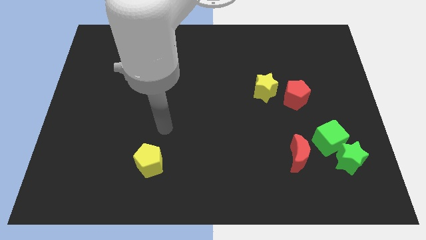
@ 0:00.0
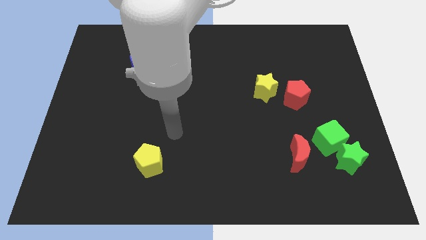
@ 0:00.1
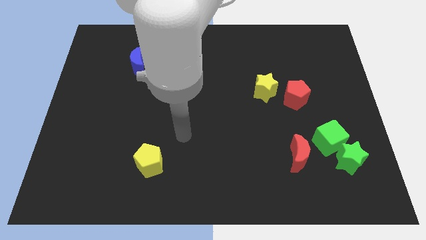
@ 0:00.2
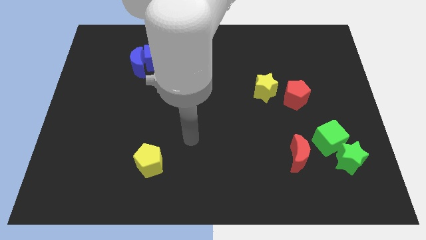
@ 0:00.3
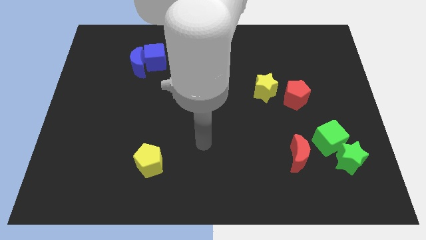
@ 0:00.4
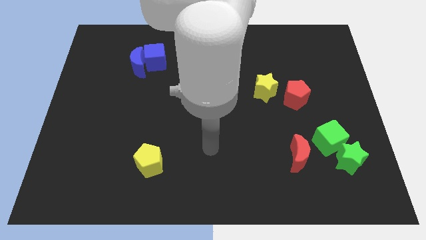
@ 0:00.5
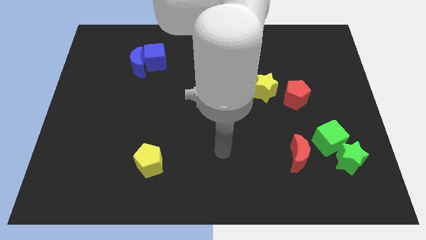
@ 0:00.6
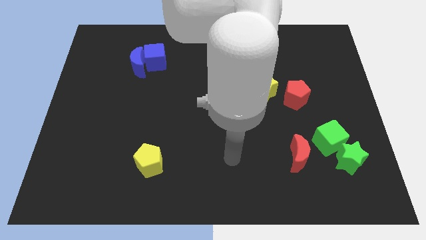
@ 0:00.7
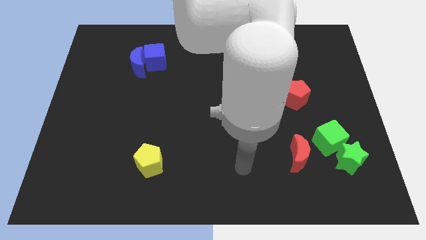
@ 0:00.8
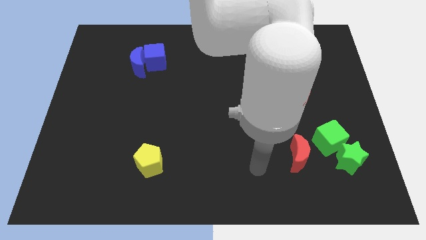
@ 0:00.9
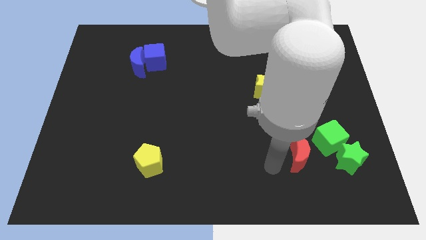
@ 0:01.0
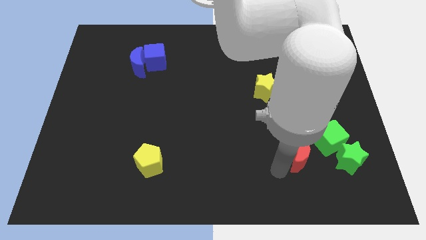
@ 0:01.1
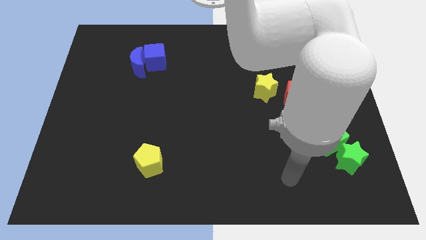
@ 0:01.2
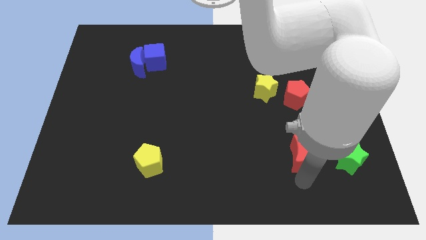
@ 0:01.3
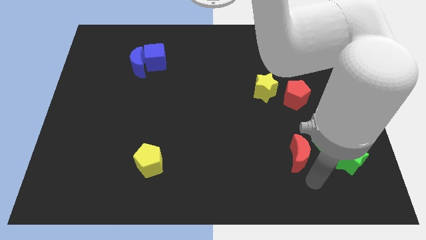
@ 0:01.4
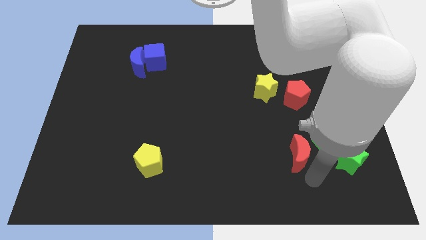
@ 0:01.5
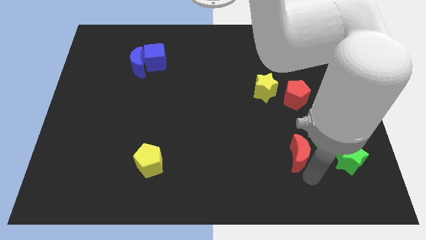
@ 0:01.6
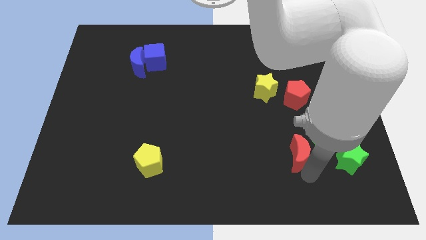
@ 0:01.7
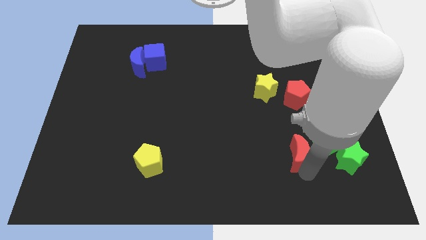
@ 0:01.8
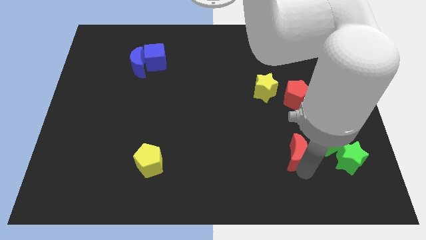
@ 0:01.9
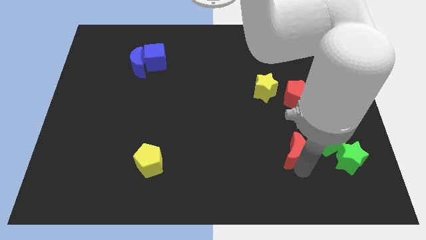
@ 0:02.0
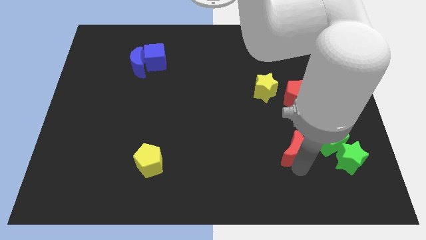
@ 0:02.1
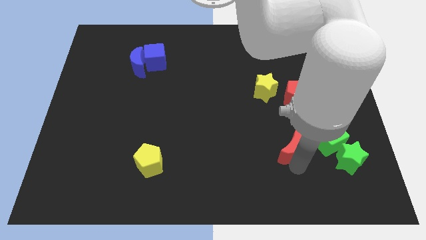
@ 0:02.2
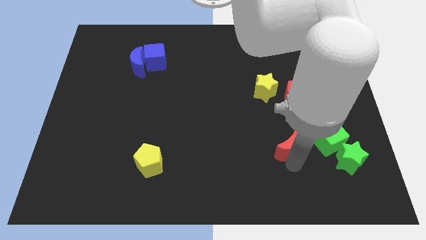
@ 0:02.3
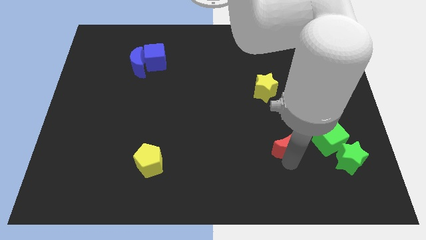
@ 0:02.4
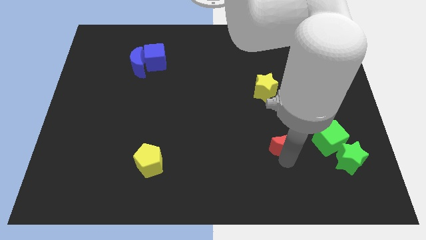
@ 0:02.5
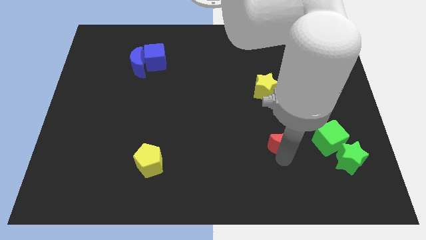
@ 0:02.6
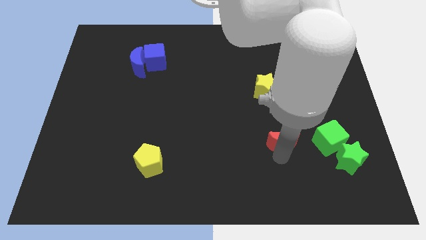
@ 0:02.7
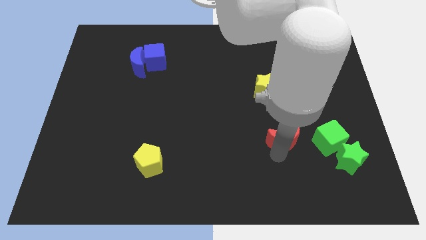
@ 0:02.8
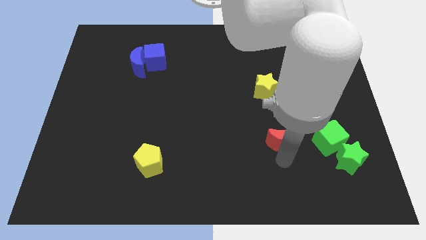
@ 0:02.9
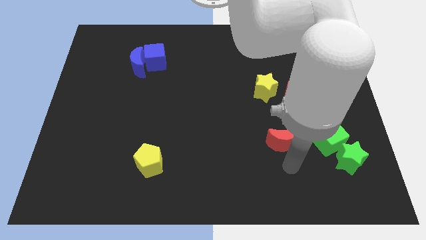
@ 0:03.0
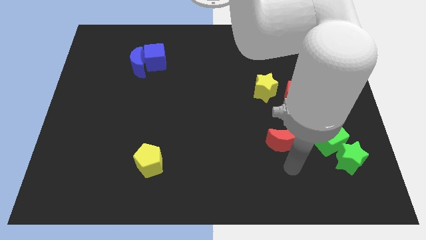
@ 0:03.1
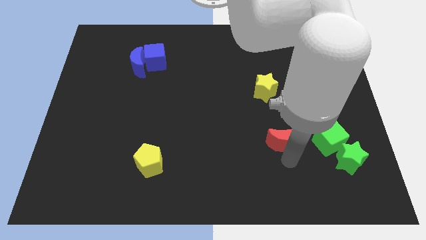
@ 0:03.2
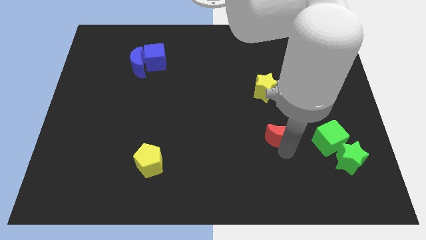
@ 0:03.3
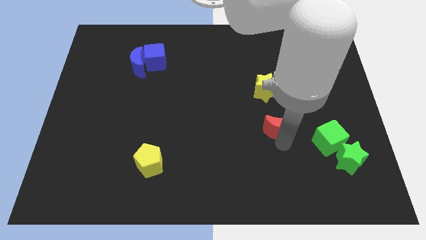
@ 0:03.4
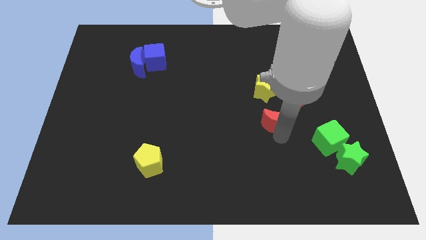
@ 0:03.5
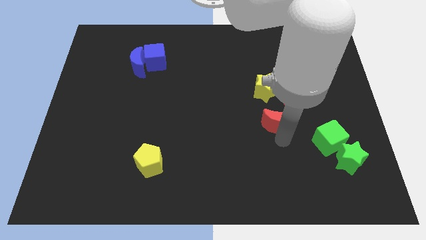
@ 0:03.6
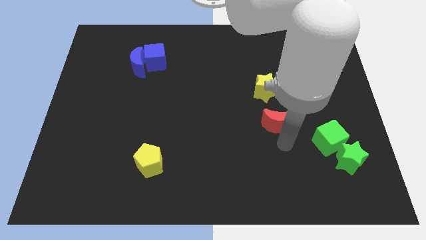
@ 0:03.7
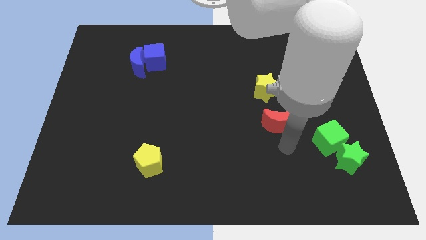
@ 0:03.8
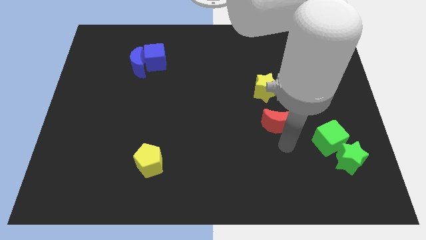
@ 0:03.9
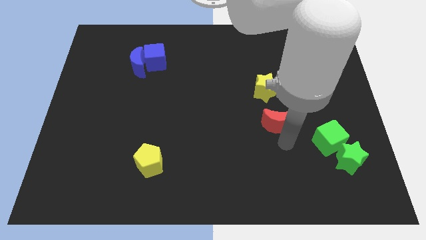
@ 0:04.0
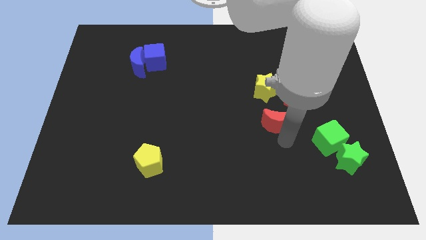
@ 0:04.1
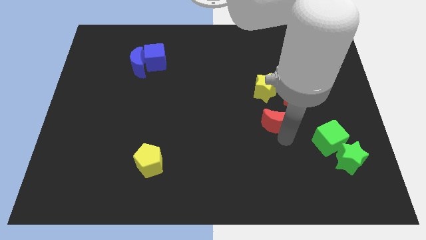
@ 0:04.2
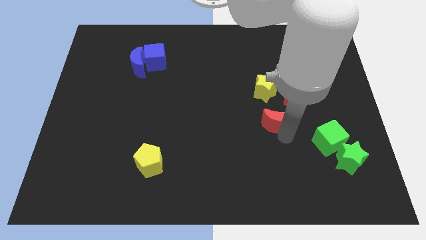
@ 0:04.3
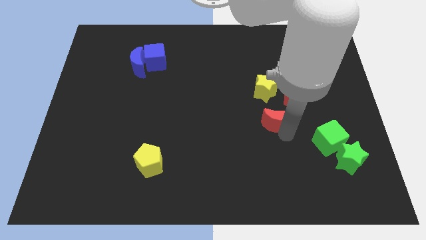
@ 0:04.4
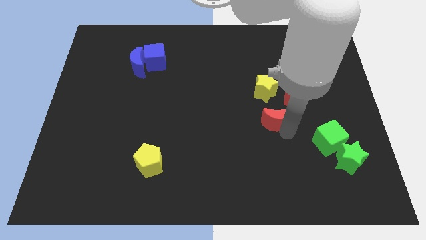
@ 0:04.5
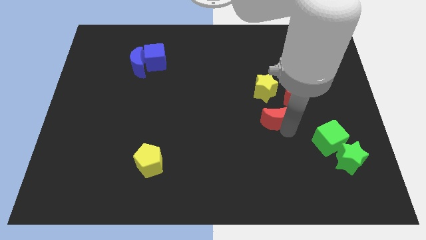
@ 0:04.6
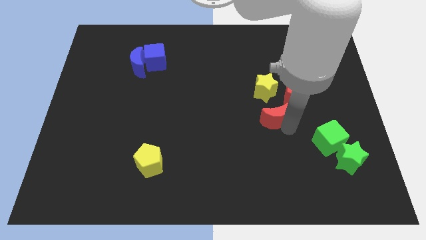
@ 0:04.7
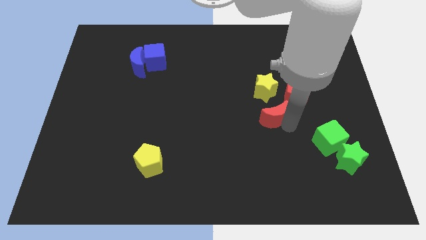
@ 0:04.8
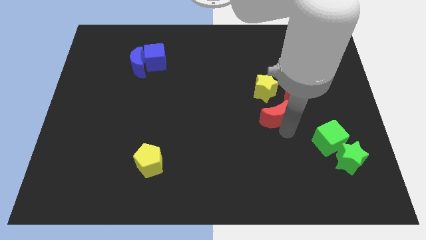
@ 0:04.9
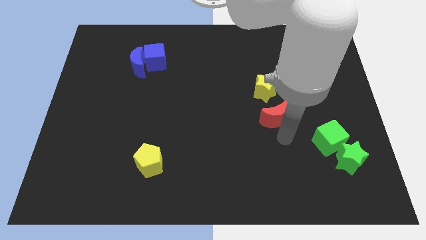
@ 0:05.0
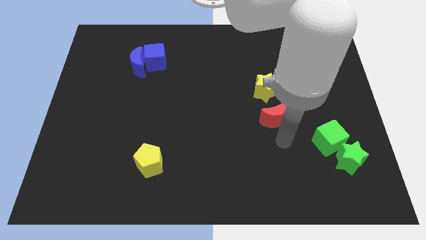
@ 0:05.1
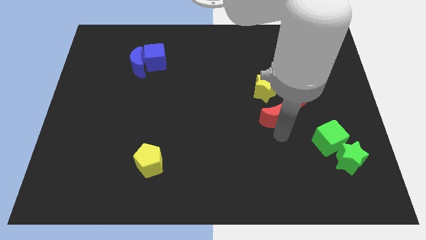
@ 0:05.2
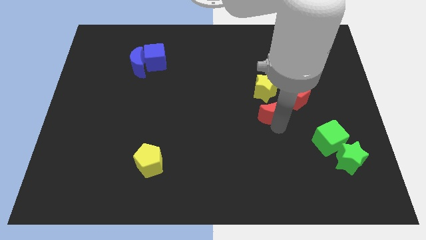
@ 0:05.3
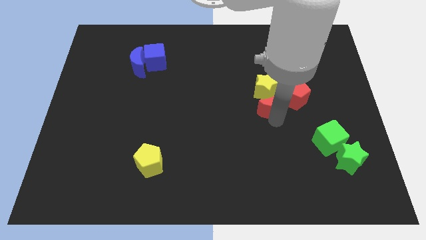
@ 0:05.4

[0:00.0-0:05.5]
put the red moon to the yellow star

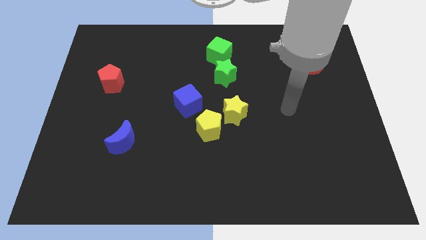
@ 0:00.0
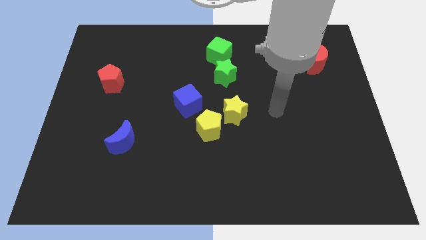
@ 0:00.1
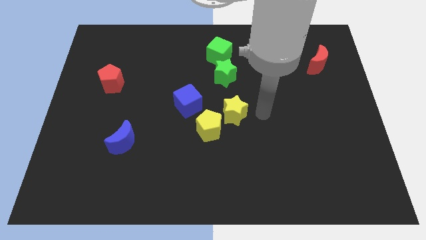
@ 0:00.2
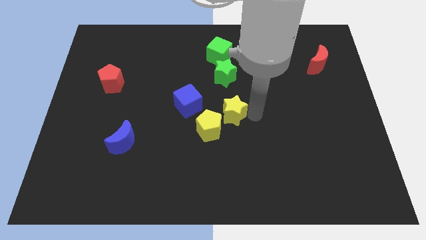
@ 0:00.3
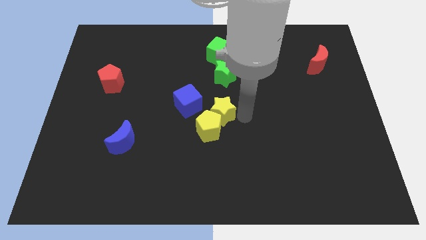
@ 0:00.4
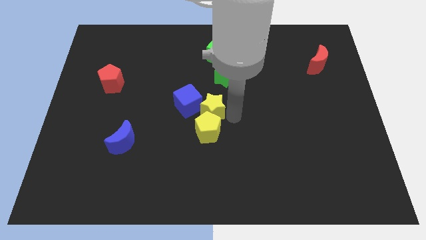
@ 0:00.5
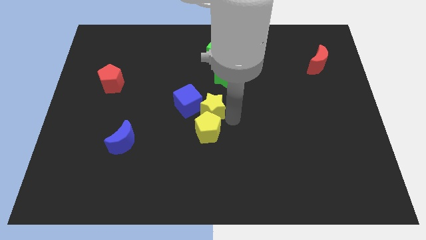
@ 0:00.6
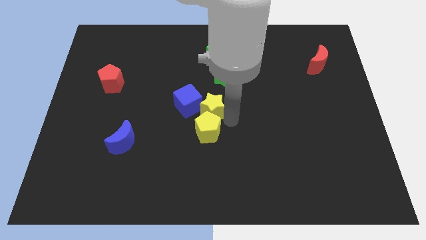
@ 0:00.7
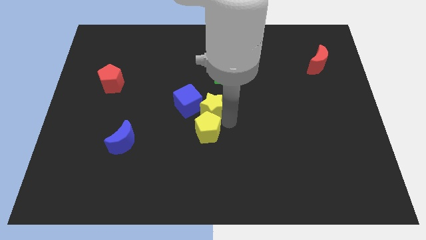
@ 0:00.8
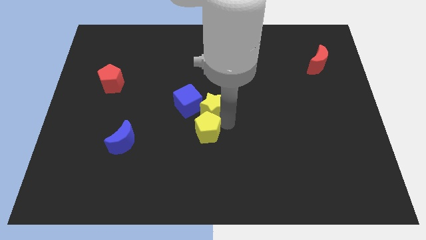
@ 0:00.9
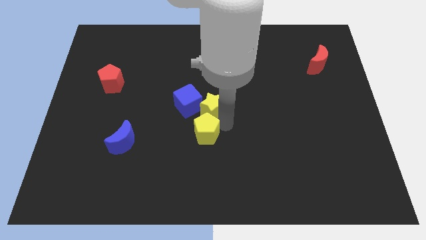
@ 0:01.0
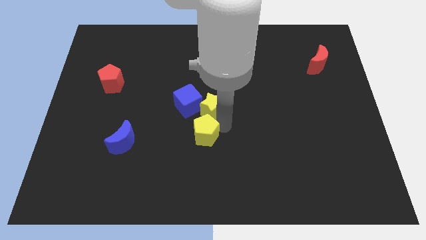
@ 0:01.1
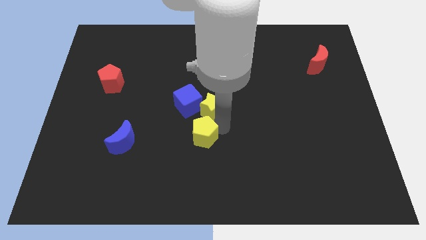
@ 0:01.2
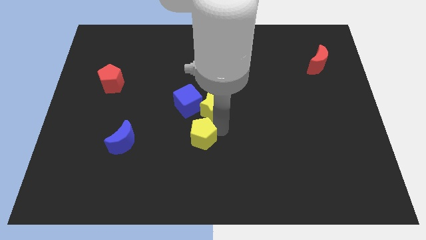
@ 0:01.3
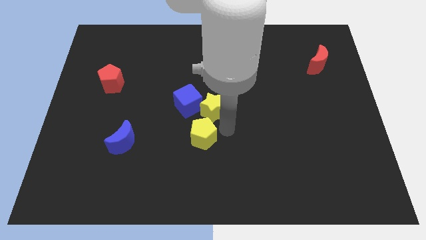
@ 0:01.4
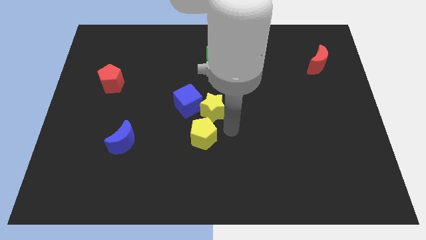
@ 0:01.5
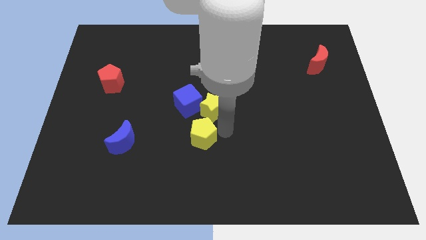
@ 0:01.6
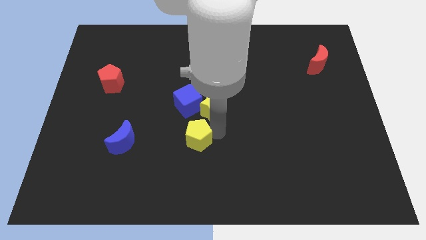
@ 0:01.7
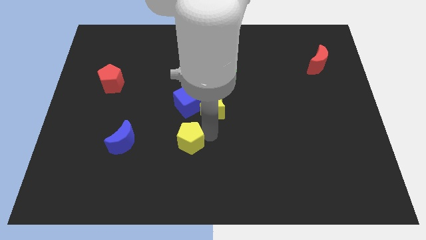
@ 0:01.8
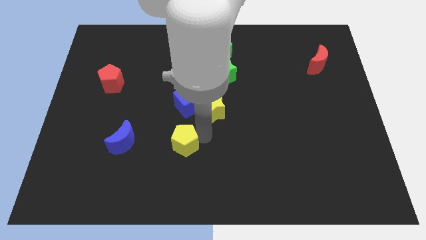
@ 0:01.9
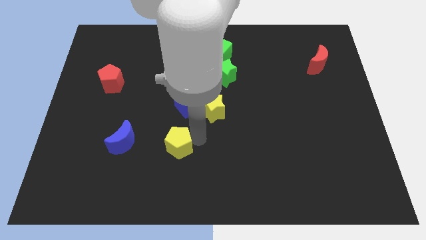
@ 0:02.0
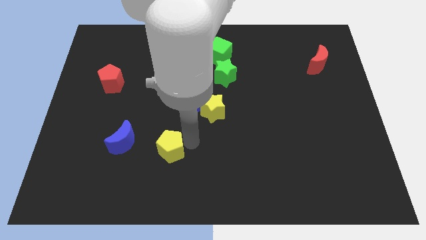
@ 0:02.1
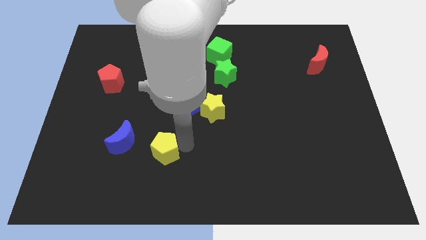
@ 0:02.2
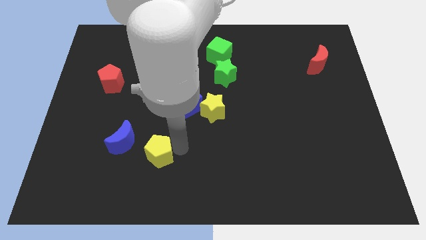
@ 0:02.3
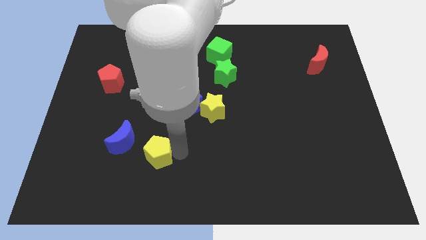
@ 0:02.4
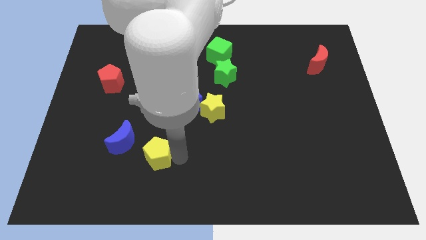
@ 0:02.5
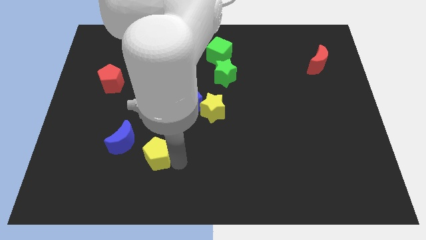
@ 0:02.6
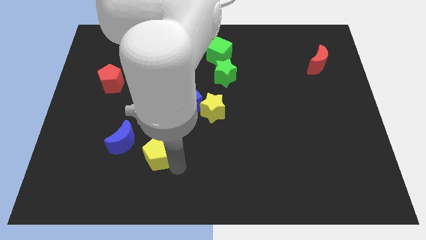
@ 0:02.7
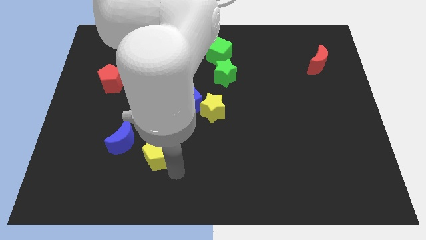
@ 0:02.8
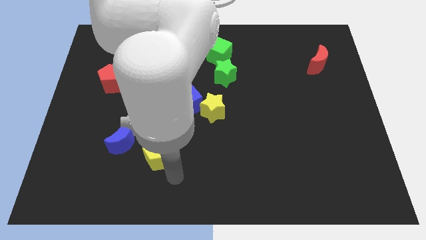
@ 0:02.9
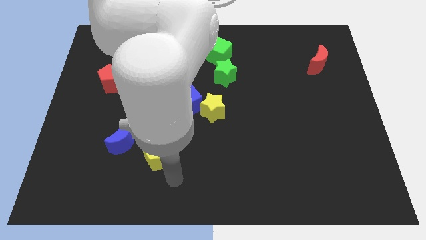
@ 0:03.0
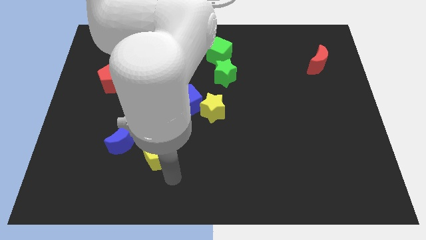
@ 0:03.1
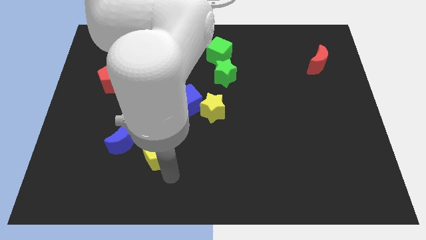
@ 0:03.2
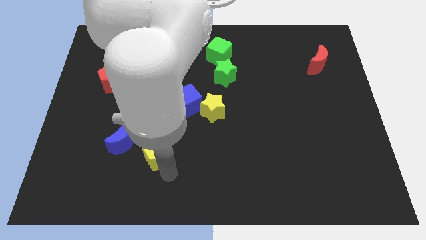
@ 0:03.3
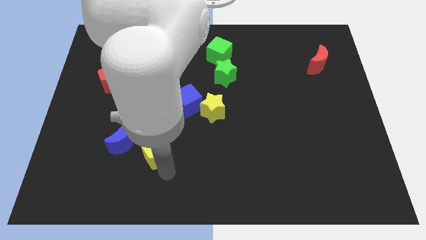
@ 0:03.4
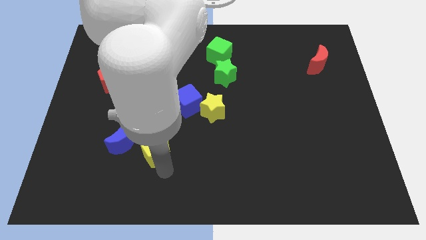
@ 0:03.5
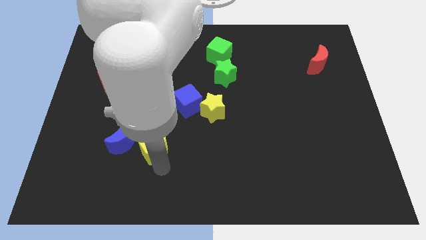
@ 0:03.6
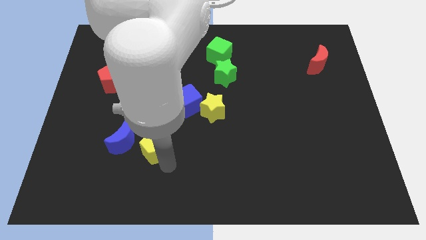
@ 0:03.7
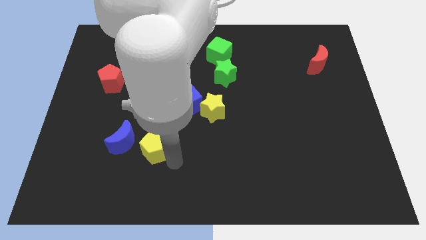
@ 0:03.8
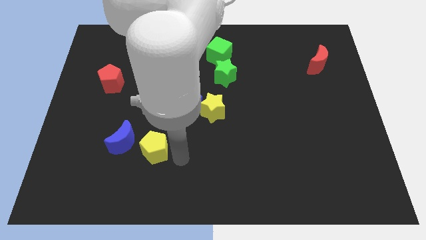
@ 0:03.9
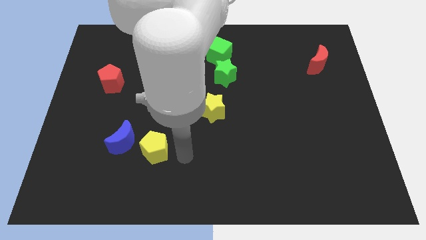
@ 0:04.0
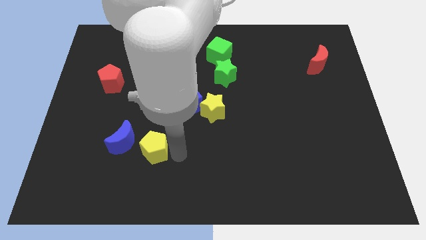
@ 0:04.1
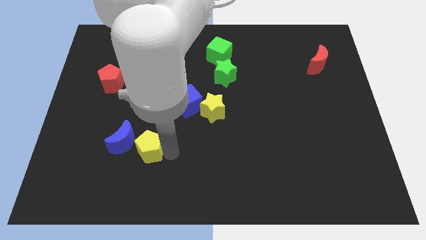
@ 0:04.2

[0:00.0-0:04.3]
slide the yellow pentagon to the blue moon
